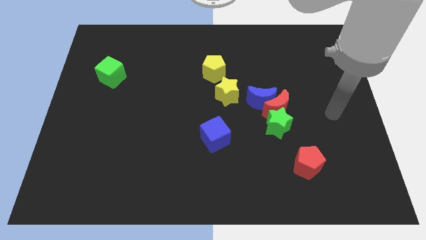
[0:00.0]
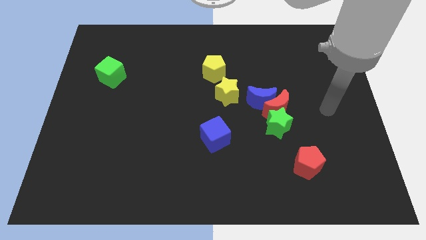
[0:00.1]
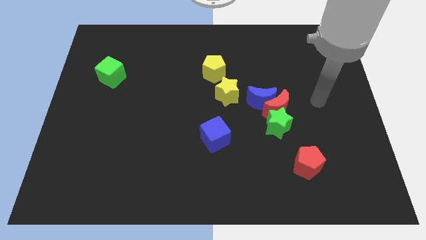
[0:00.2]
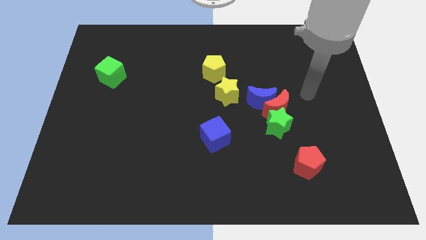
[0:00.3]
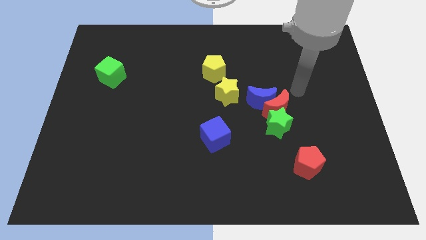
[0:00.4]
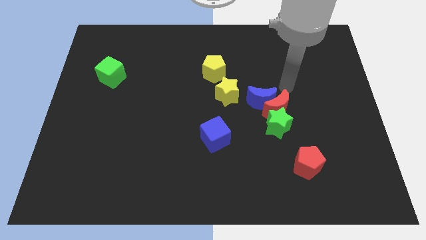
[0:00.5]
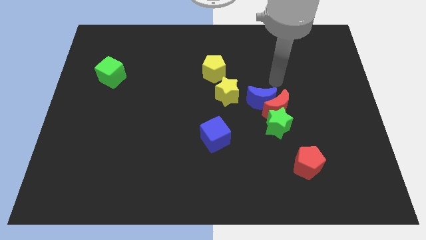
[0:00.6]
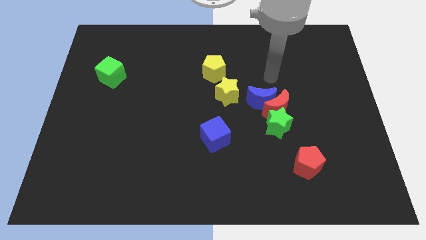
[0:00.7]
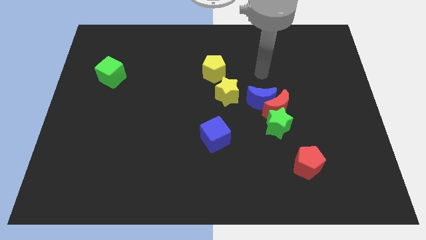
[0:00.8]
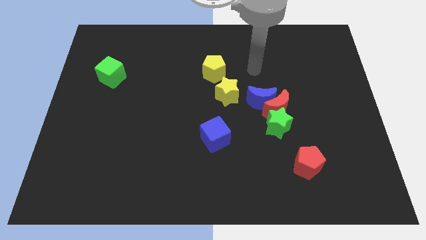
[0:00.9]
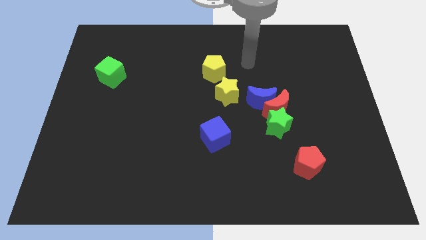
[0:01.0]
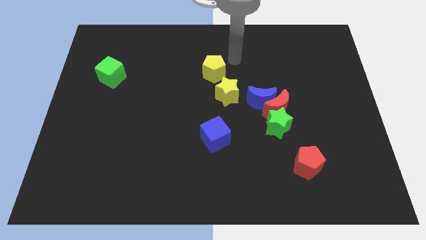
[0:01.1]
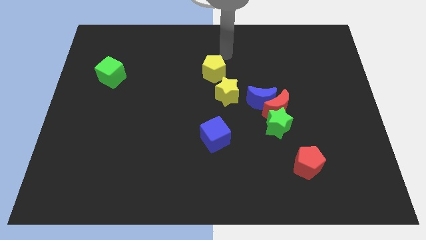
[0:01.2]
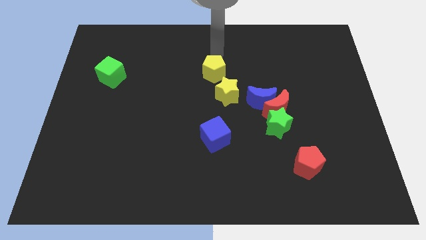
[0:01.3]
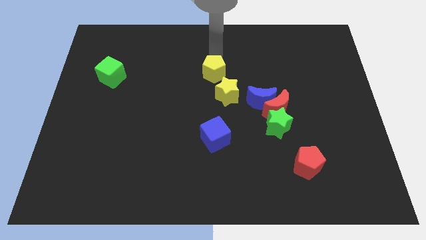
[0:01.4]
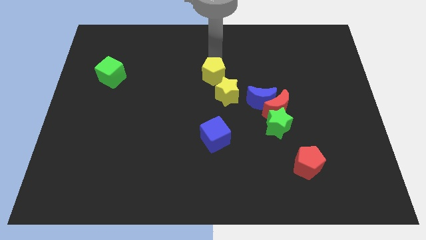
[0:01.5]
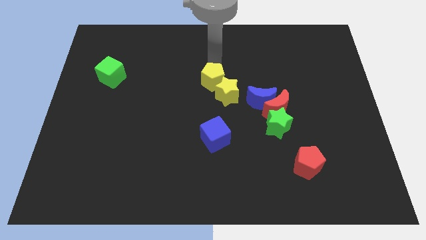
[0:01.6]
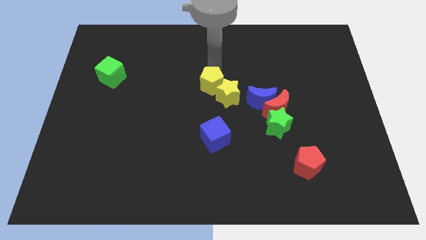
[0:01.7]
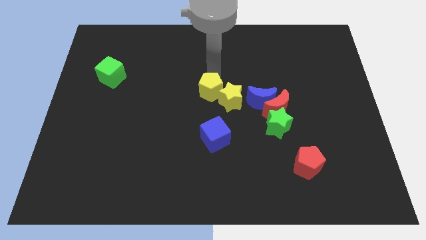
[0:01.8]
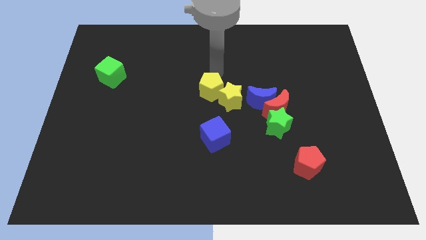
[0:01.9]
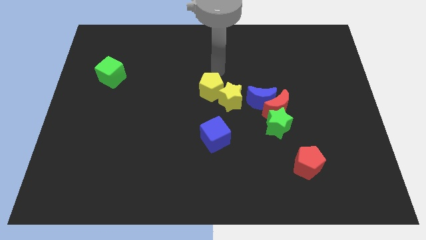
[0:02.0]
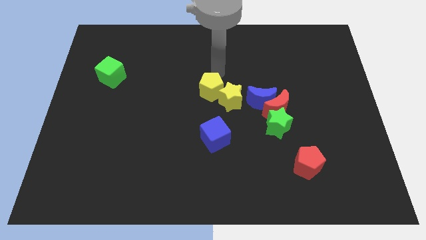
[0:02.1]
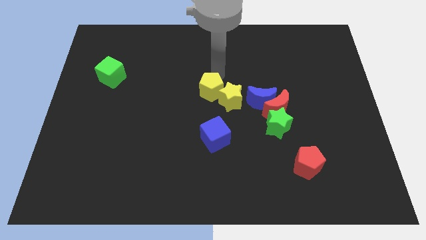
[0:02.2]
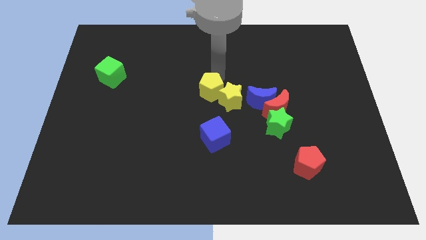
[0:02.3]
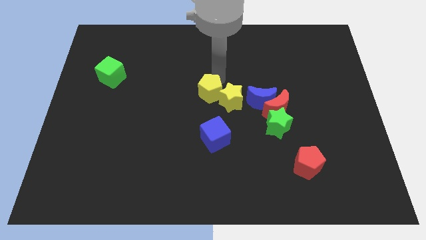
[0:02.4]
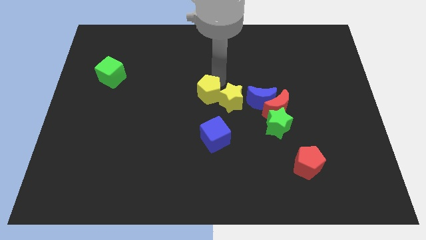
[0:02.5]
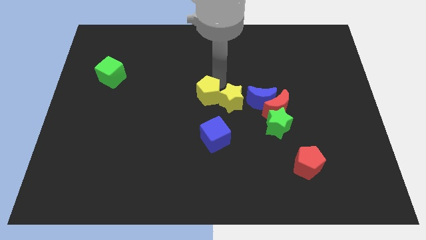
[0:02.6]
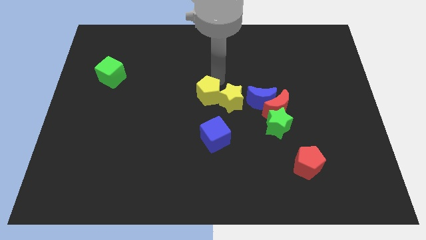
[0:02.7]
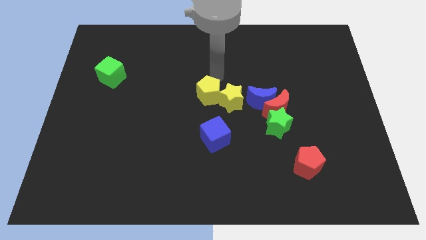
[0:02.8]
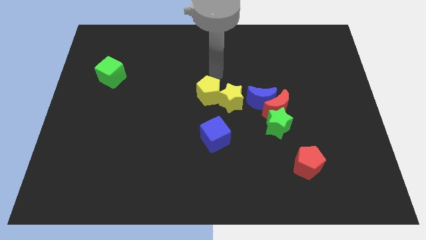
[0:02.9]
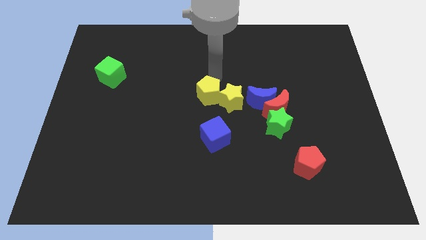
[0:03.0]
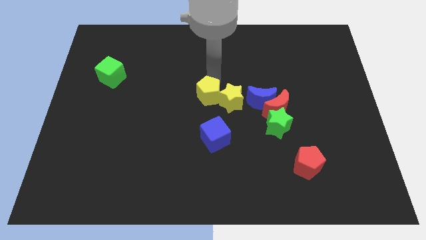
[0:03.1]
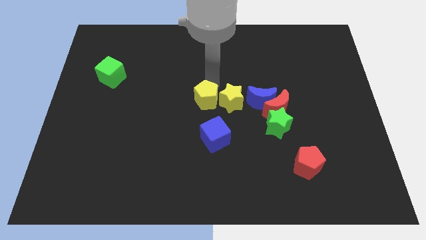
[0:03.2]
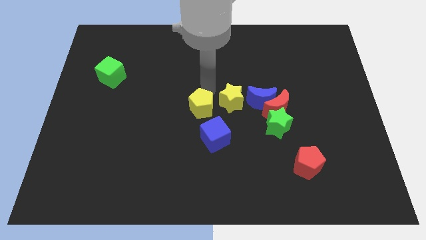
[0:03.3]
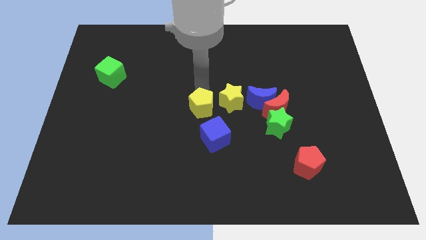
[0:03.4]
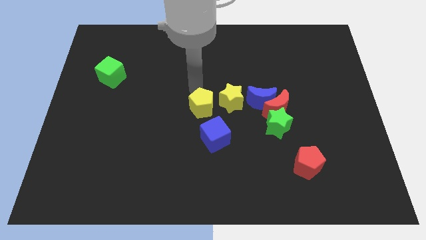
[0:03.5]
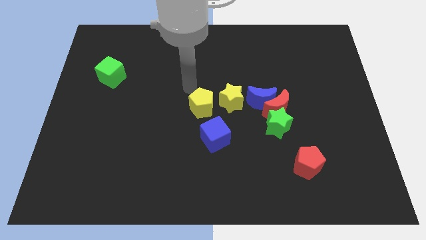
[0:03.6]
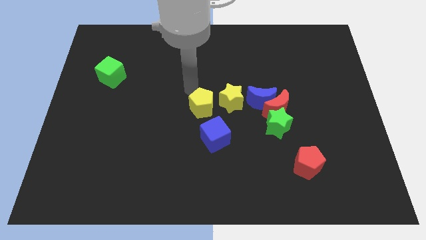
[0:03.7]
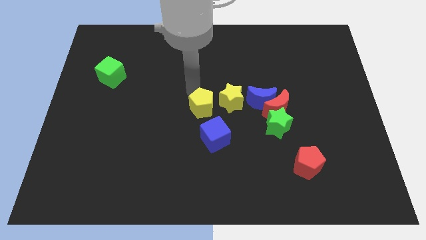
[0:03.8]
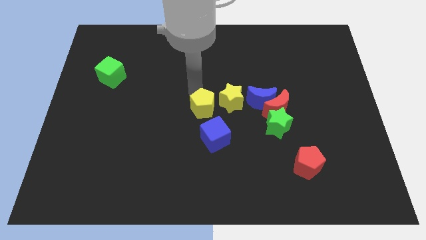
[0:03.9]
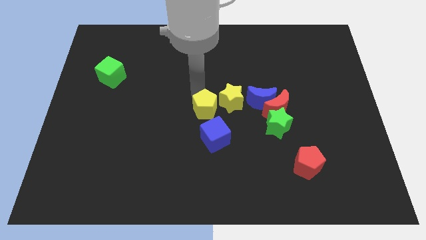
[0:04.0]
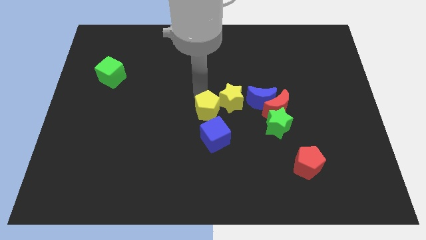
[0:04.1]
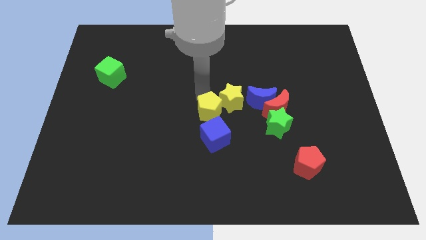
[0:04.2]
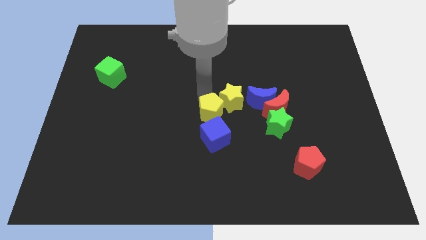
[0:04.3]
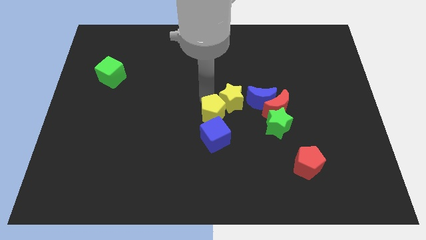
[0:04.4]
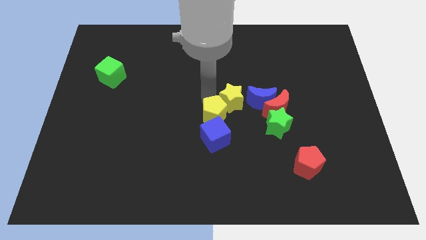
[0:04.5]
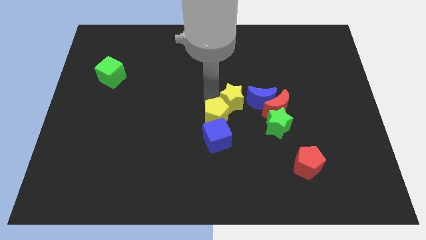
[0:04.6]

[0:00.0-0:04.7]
slide the yellow pentagon to the blue cube

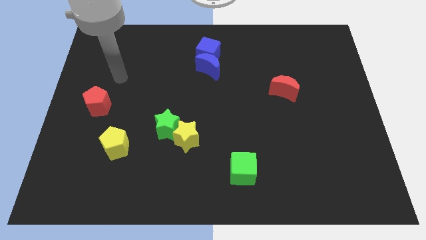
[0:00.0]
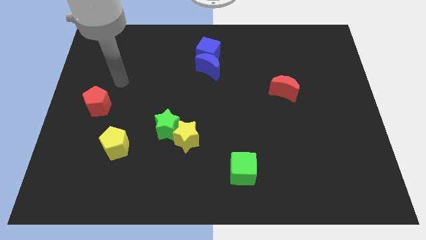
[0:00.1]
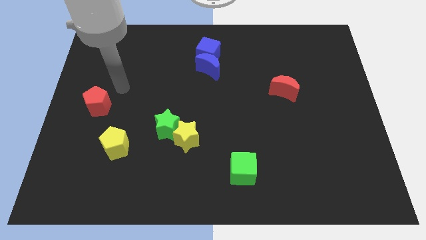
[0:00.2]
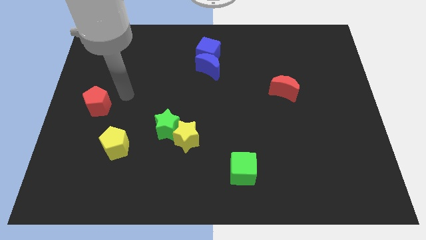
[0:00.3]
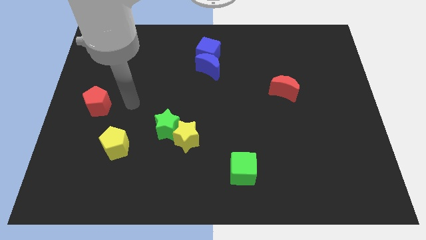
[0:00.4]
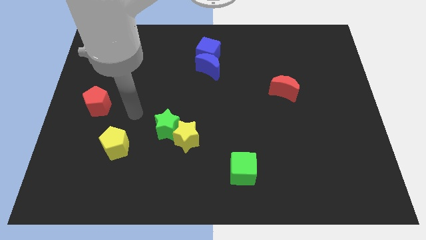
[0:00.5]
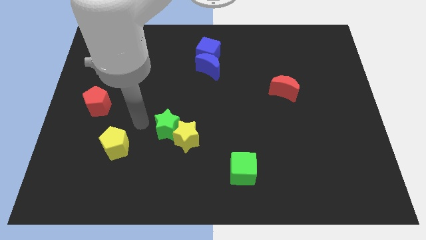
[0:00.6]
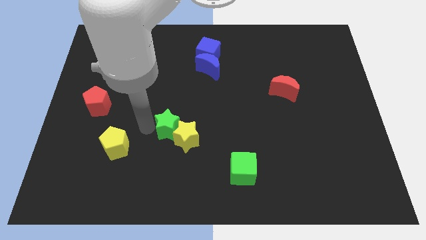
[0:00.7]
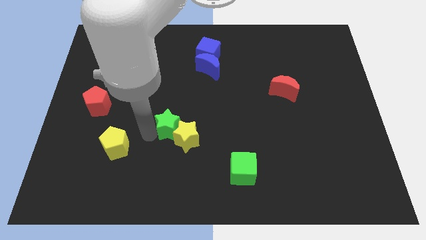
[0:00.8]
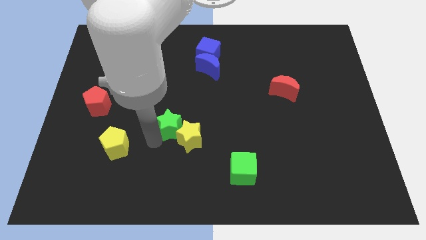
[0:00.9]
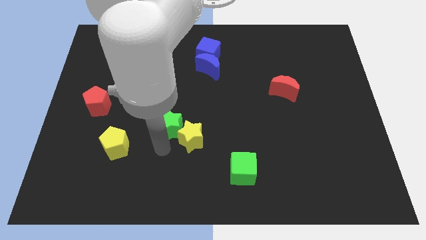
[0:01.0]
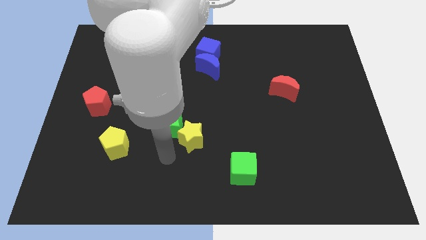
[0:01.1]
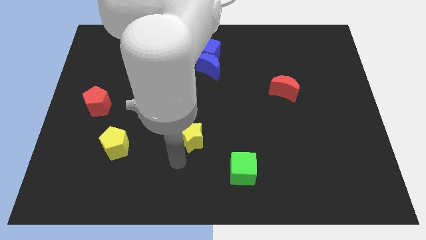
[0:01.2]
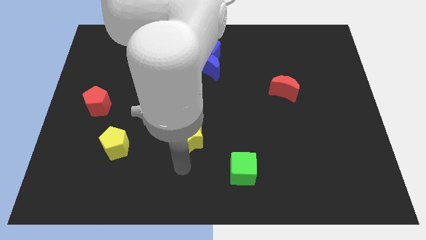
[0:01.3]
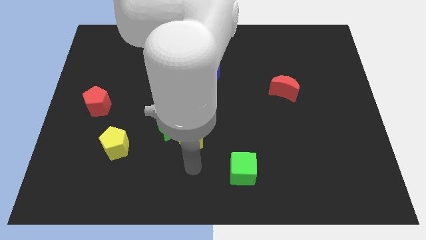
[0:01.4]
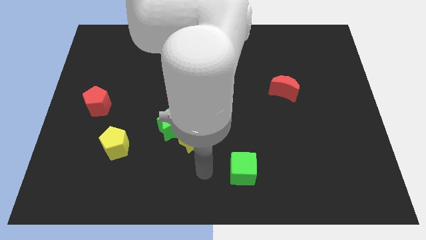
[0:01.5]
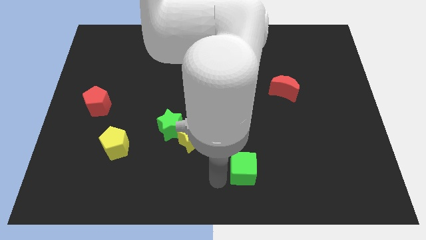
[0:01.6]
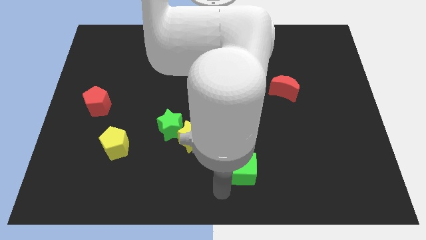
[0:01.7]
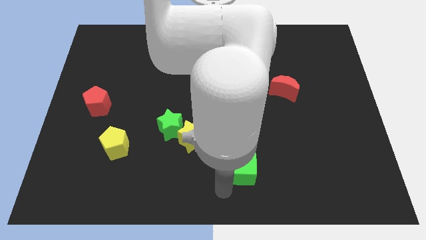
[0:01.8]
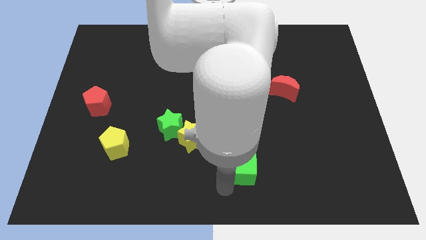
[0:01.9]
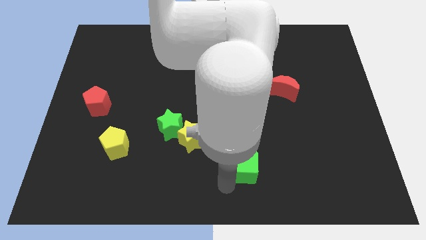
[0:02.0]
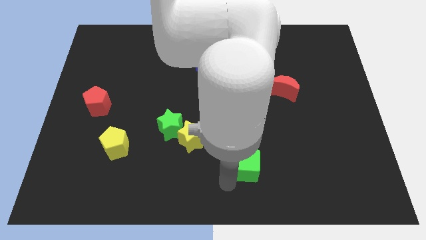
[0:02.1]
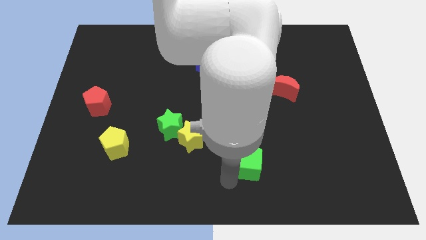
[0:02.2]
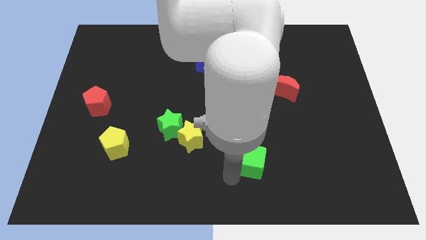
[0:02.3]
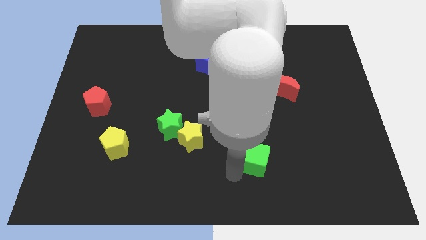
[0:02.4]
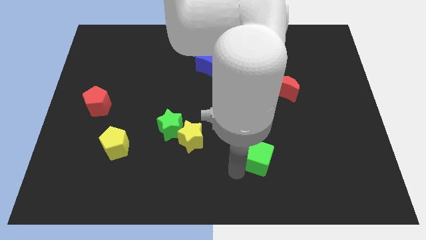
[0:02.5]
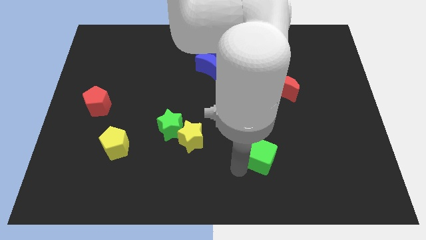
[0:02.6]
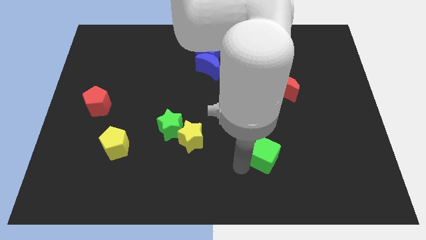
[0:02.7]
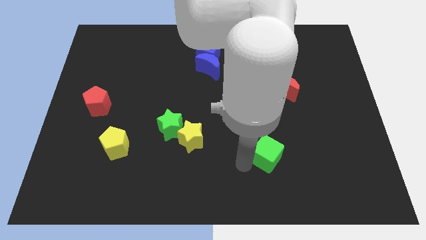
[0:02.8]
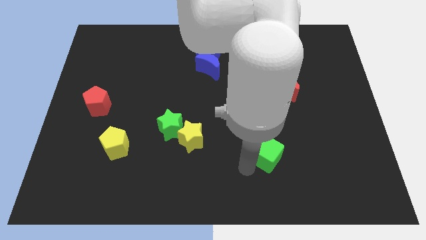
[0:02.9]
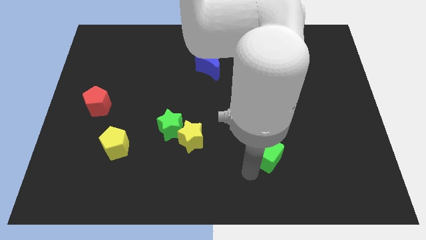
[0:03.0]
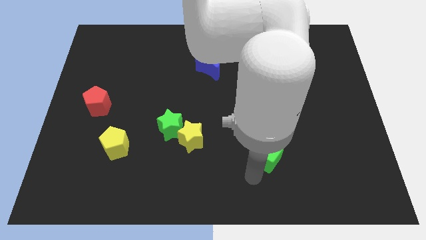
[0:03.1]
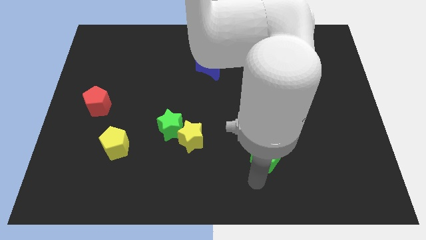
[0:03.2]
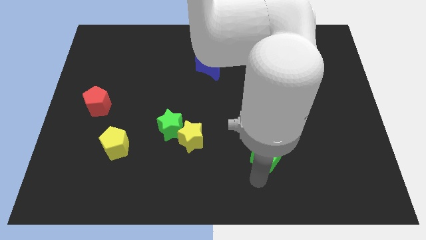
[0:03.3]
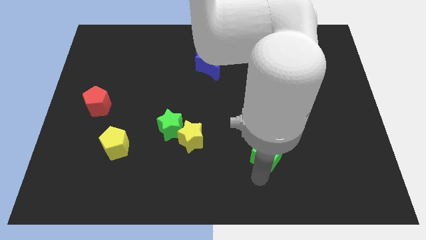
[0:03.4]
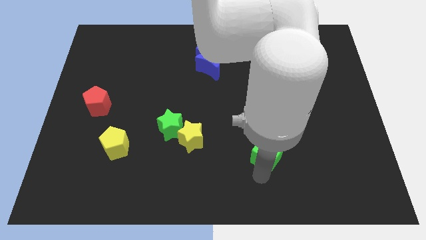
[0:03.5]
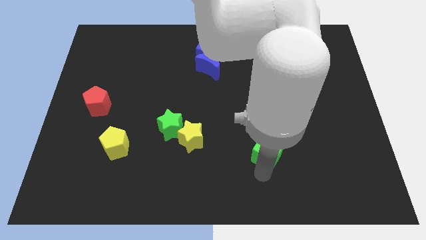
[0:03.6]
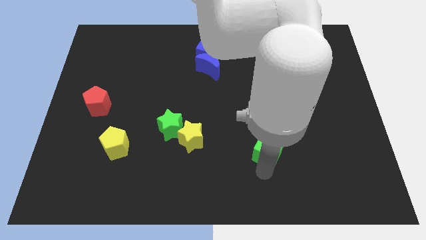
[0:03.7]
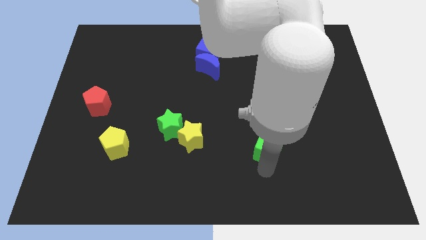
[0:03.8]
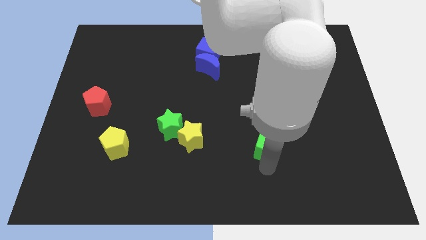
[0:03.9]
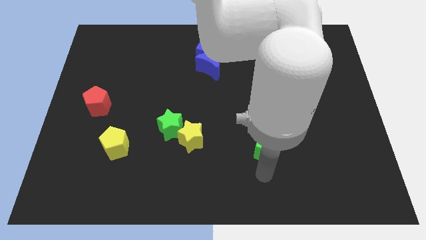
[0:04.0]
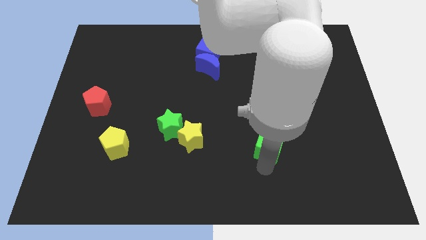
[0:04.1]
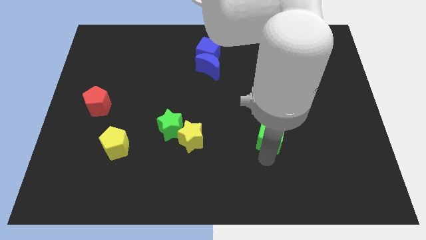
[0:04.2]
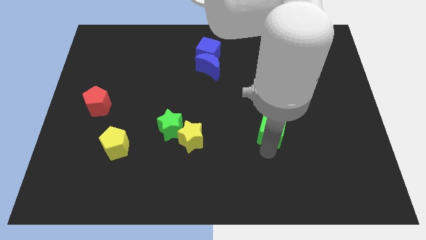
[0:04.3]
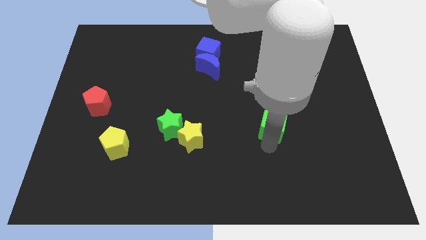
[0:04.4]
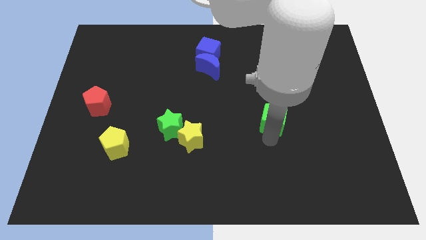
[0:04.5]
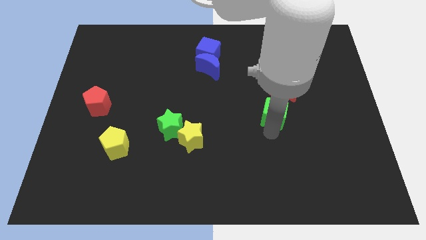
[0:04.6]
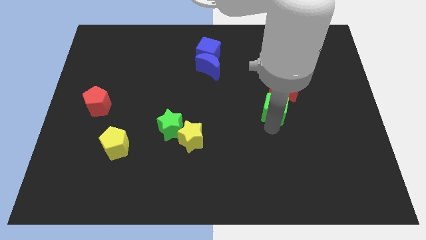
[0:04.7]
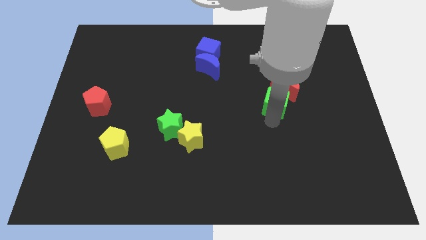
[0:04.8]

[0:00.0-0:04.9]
slide the green cube next to the red moon
